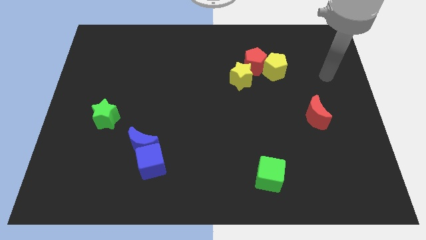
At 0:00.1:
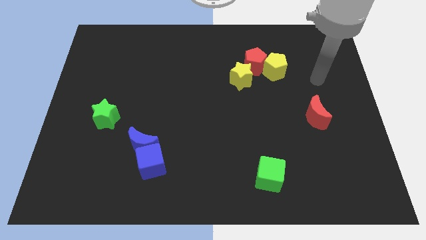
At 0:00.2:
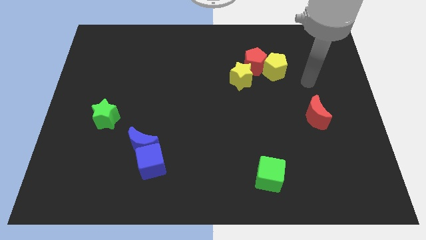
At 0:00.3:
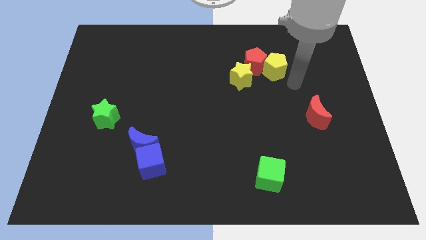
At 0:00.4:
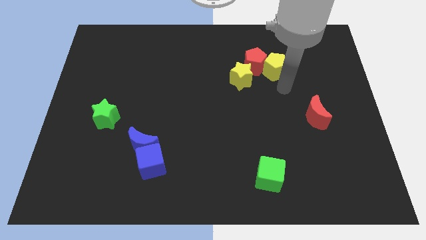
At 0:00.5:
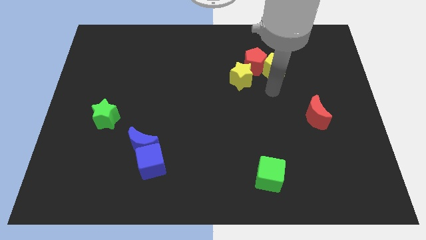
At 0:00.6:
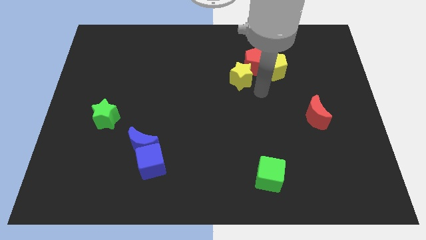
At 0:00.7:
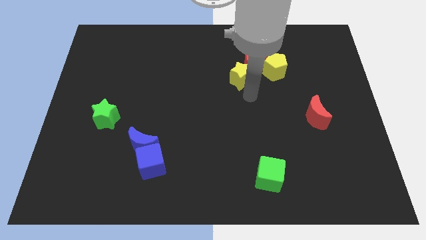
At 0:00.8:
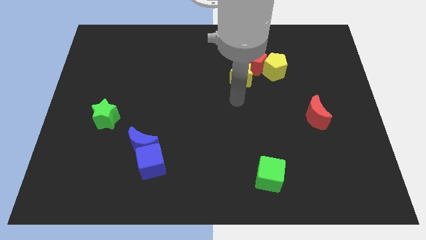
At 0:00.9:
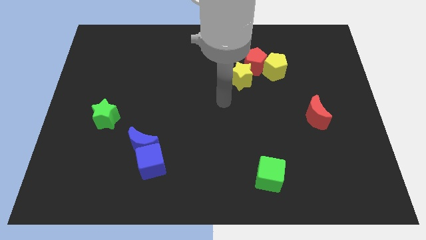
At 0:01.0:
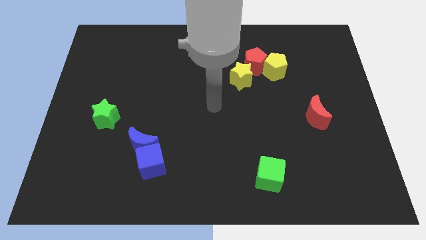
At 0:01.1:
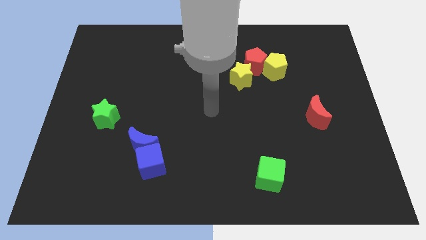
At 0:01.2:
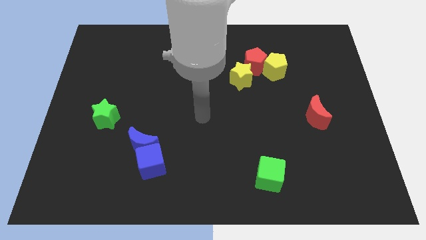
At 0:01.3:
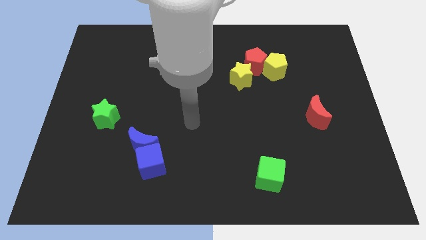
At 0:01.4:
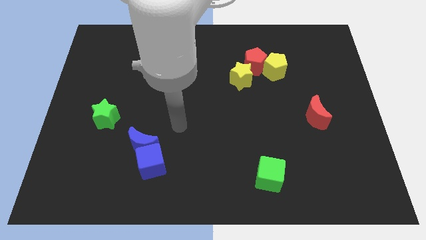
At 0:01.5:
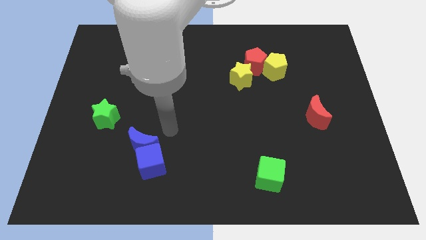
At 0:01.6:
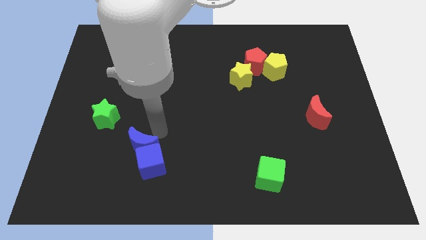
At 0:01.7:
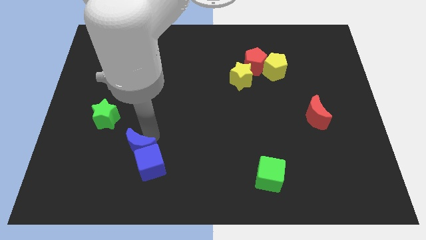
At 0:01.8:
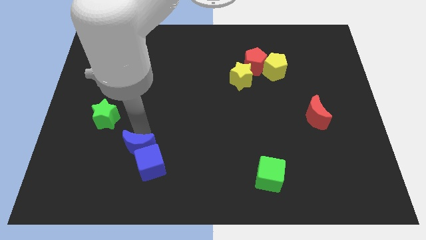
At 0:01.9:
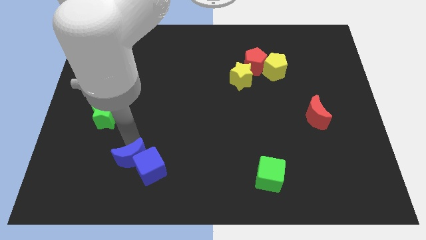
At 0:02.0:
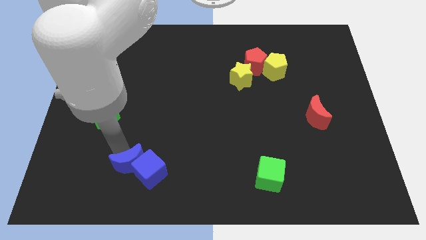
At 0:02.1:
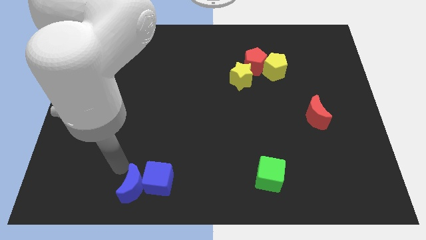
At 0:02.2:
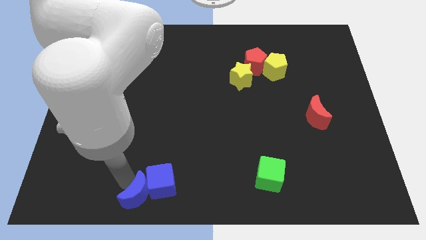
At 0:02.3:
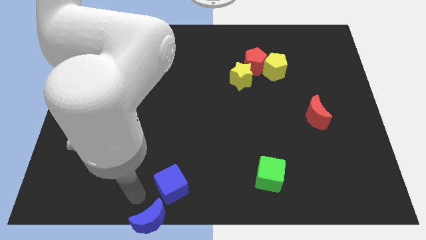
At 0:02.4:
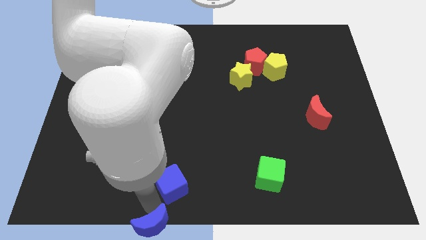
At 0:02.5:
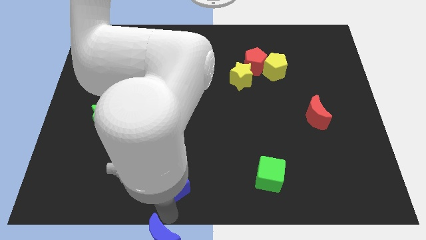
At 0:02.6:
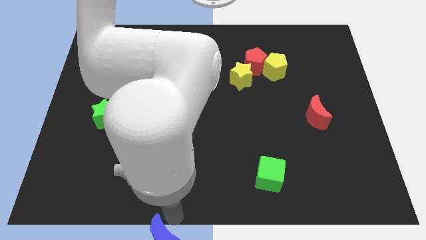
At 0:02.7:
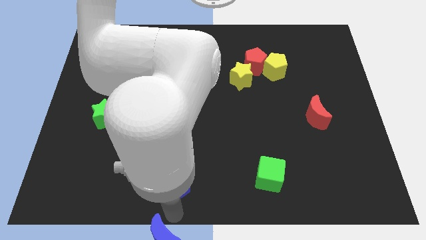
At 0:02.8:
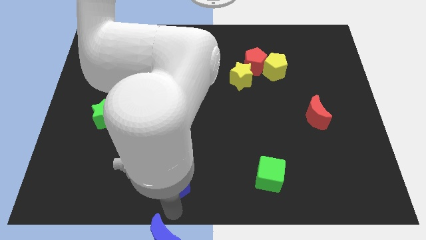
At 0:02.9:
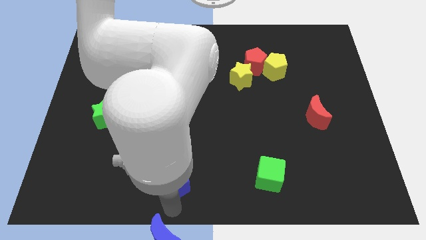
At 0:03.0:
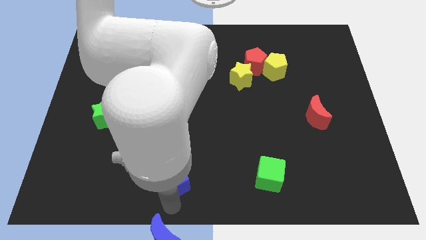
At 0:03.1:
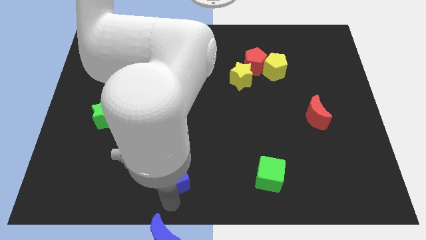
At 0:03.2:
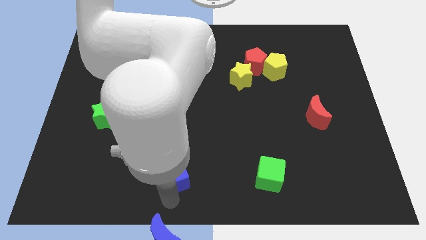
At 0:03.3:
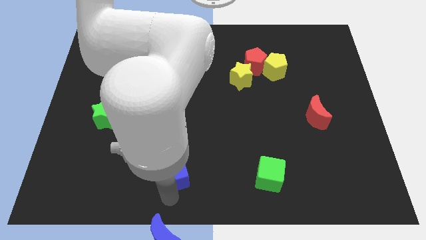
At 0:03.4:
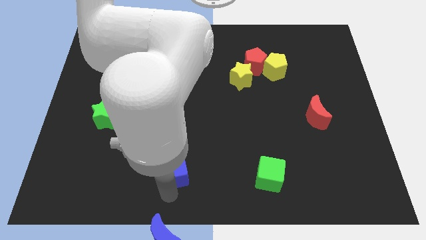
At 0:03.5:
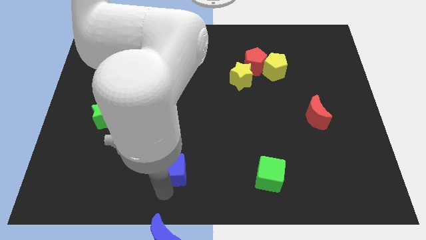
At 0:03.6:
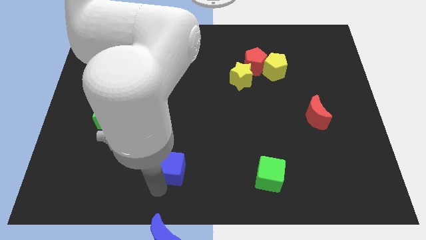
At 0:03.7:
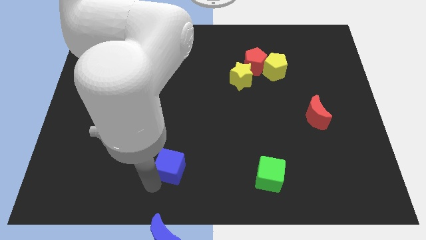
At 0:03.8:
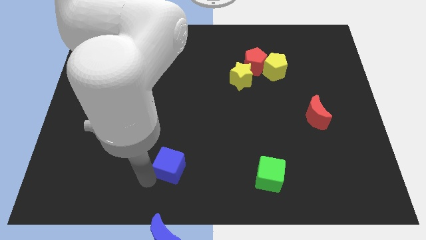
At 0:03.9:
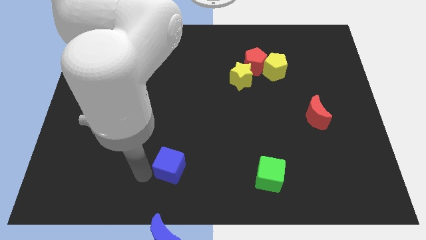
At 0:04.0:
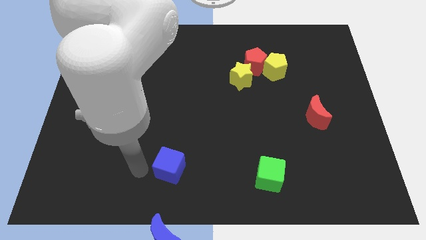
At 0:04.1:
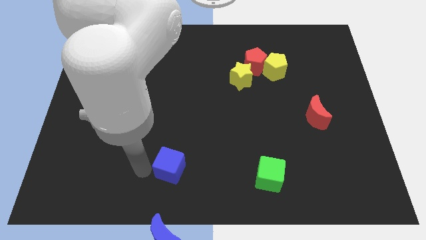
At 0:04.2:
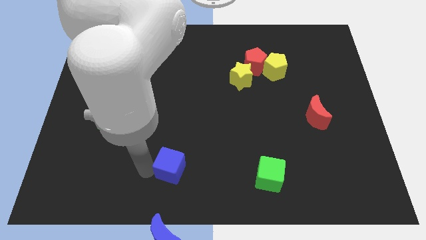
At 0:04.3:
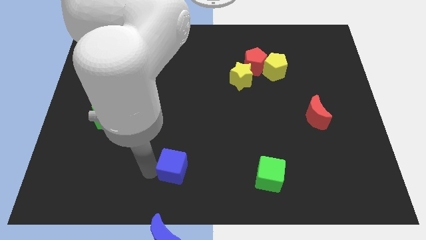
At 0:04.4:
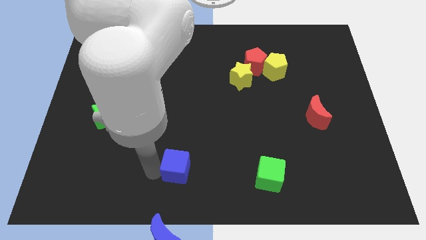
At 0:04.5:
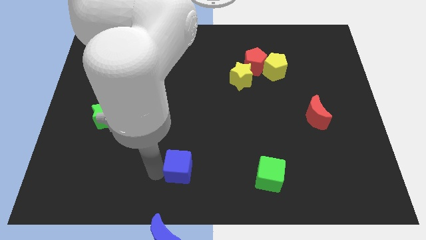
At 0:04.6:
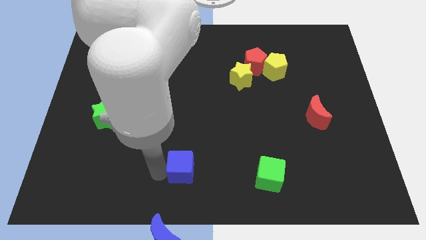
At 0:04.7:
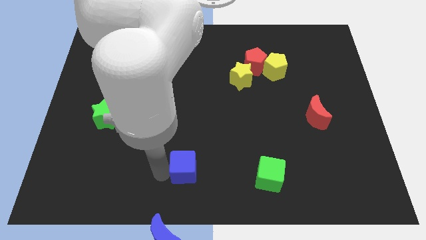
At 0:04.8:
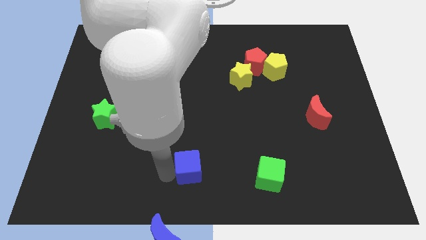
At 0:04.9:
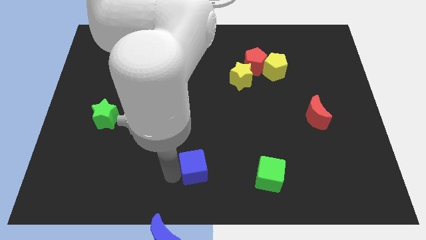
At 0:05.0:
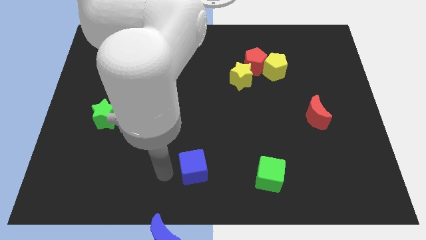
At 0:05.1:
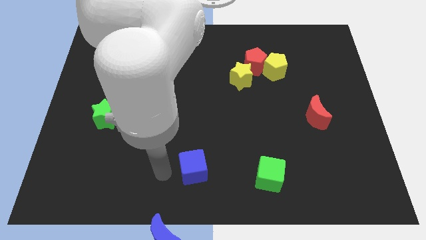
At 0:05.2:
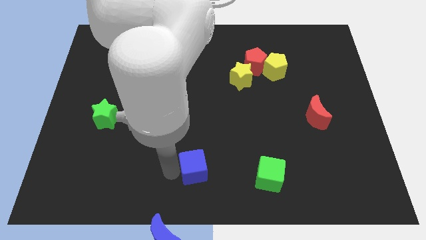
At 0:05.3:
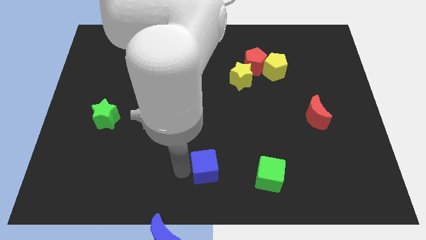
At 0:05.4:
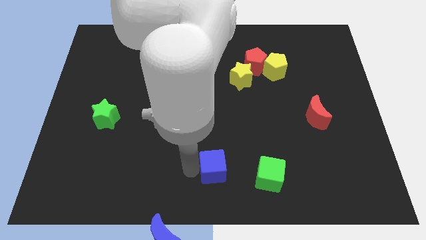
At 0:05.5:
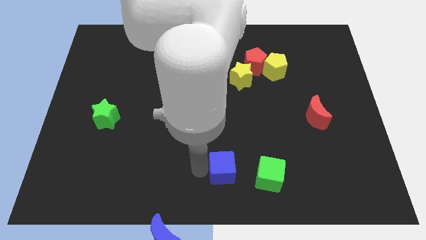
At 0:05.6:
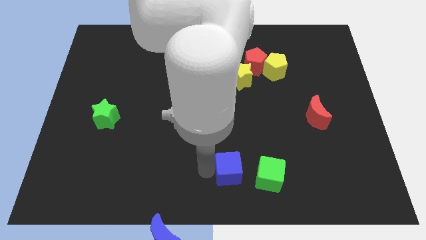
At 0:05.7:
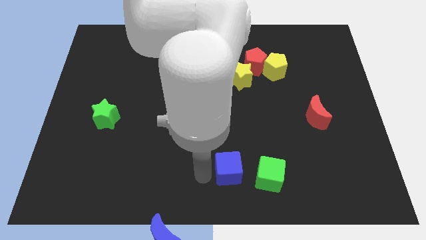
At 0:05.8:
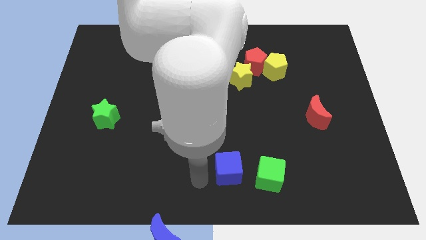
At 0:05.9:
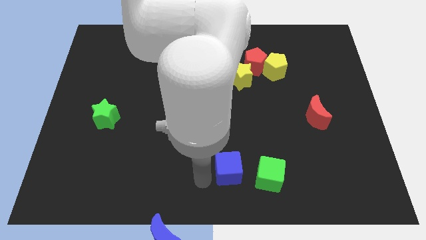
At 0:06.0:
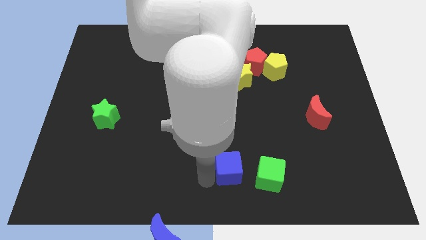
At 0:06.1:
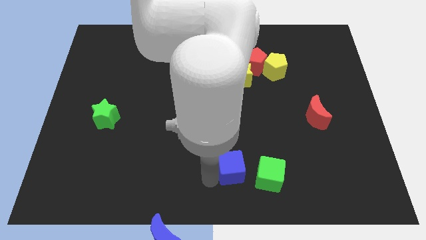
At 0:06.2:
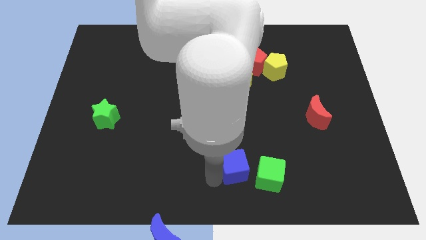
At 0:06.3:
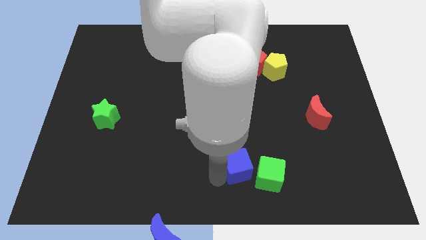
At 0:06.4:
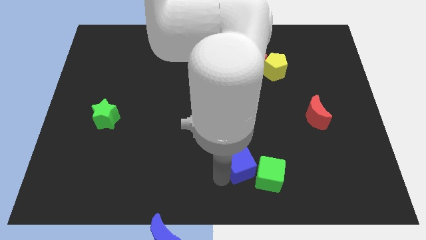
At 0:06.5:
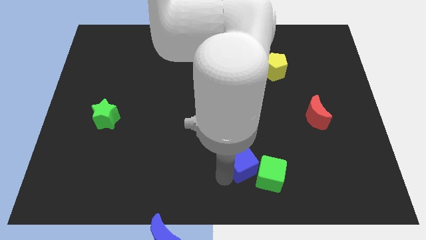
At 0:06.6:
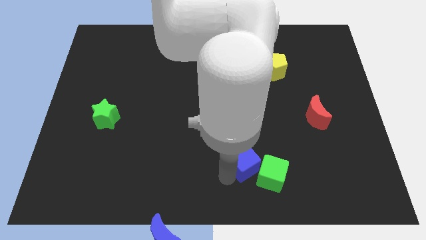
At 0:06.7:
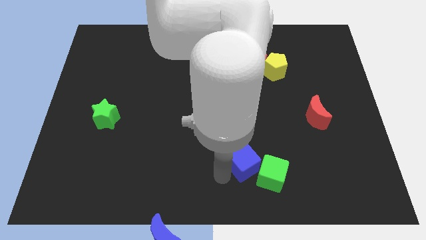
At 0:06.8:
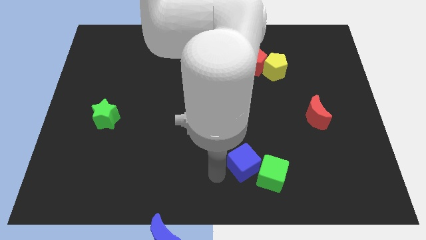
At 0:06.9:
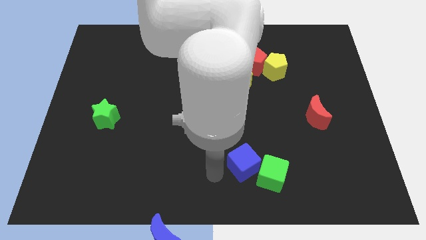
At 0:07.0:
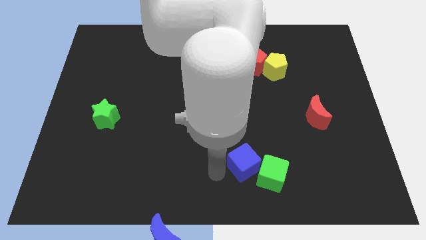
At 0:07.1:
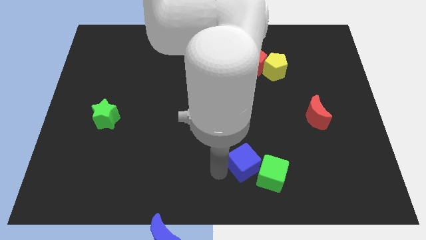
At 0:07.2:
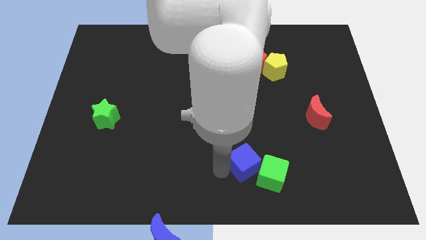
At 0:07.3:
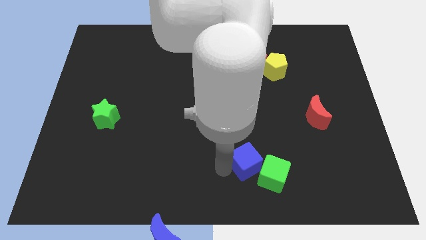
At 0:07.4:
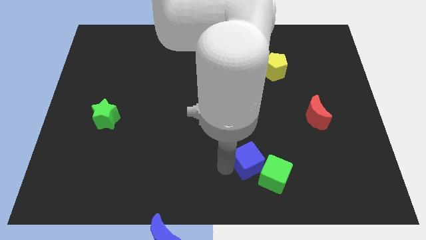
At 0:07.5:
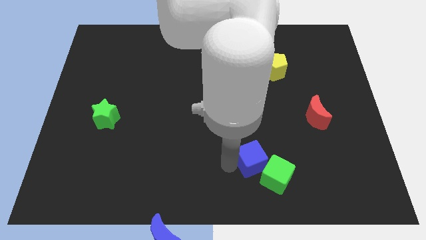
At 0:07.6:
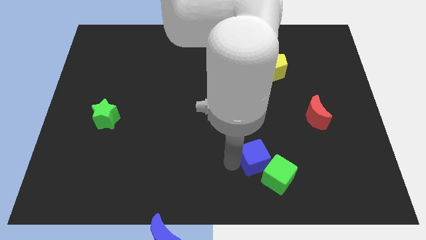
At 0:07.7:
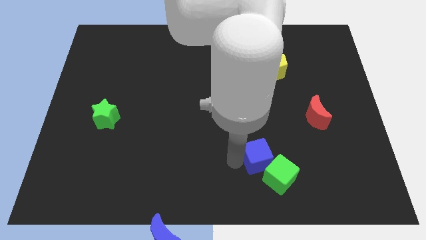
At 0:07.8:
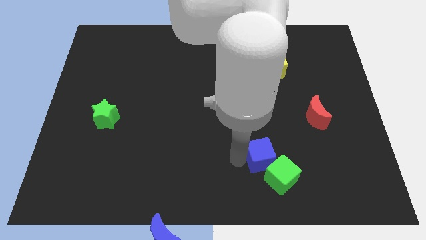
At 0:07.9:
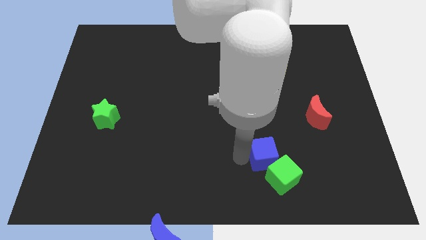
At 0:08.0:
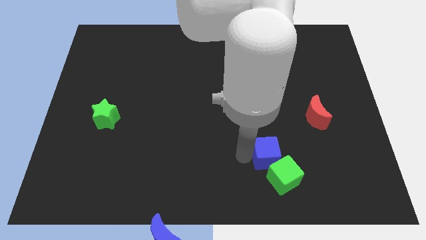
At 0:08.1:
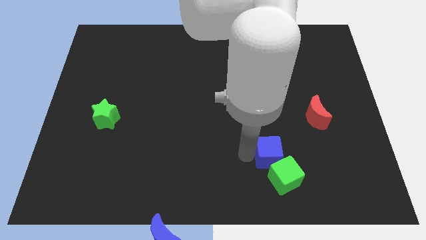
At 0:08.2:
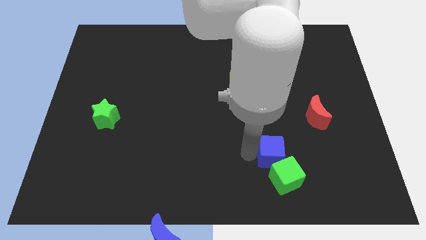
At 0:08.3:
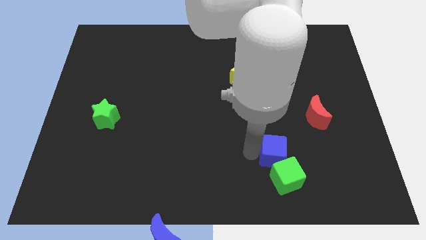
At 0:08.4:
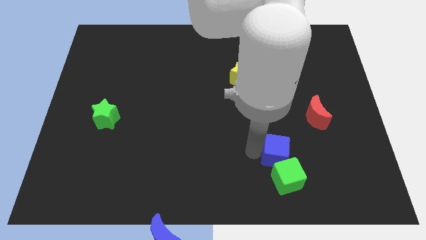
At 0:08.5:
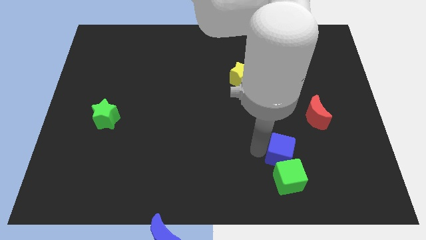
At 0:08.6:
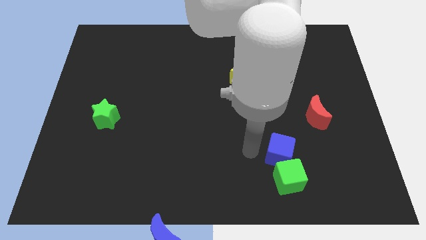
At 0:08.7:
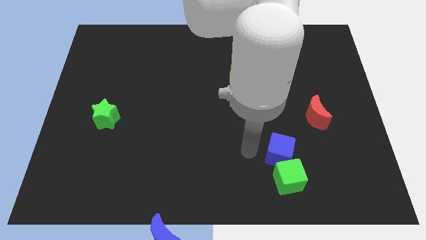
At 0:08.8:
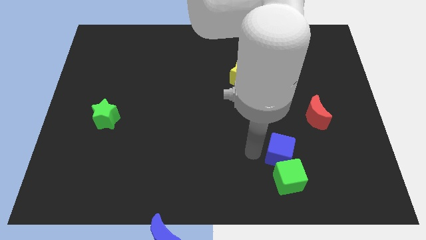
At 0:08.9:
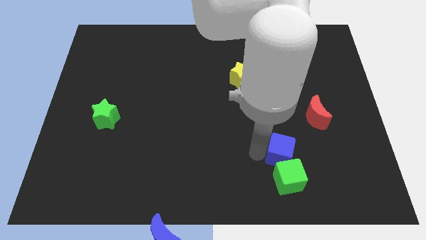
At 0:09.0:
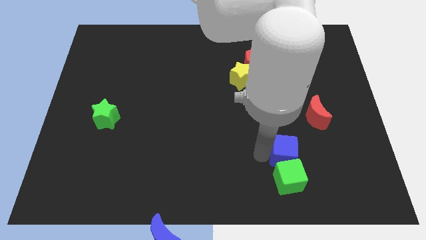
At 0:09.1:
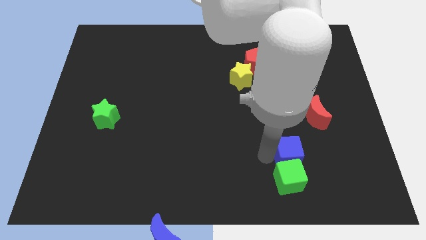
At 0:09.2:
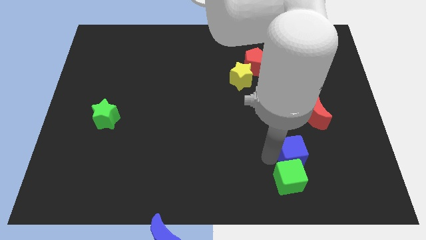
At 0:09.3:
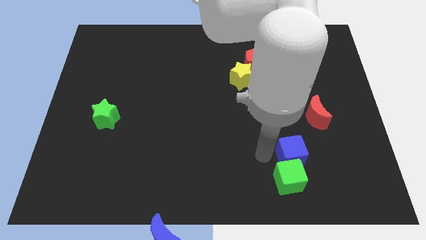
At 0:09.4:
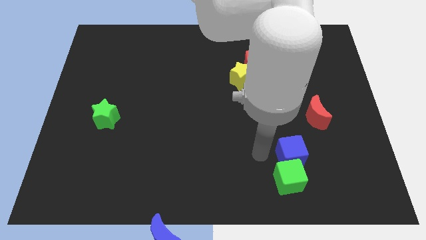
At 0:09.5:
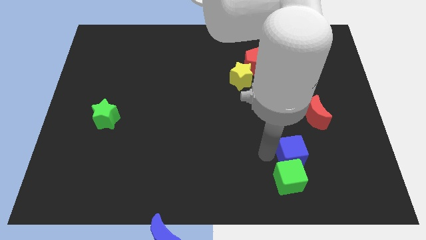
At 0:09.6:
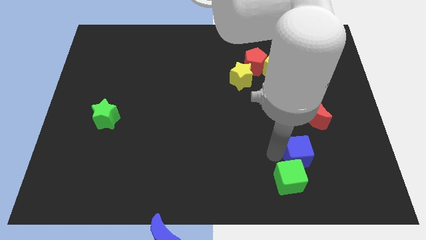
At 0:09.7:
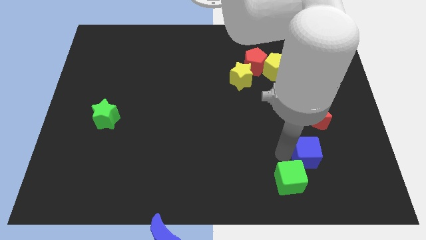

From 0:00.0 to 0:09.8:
move the blue cube to the bottom side of the red moon
